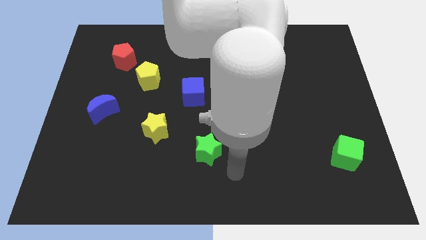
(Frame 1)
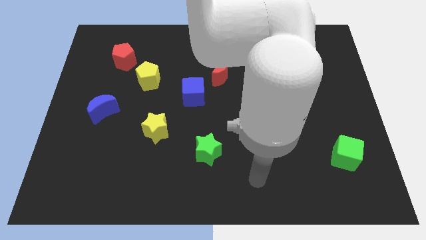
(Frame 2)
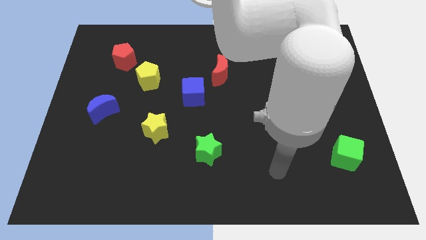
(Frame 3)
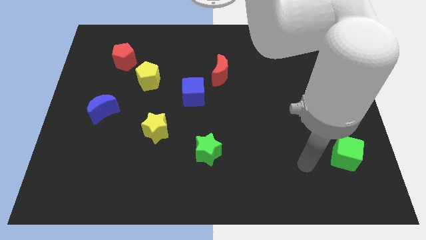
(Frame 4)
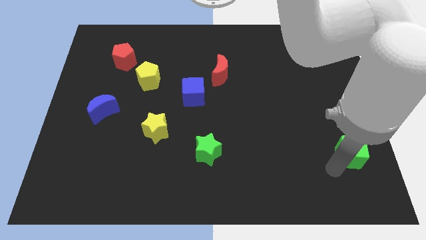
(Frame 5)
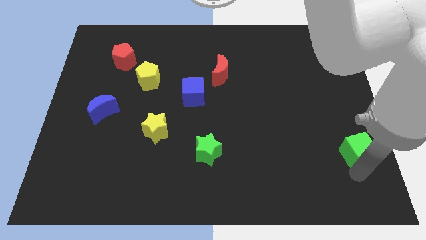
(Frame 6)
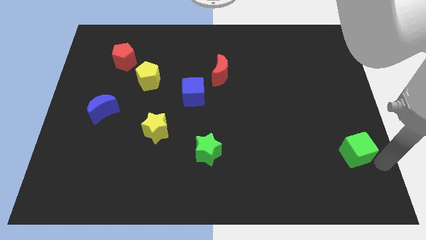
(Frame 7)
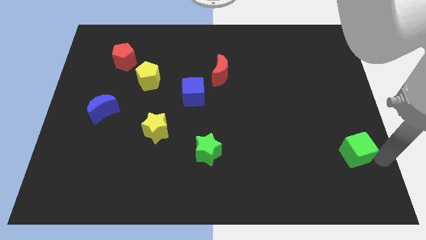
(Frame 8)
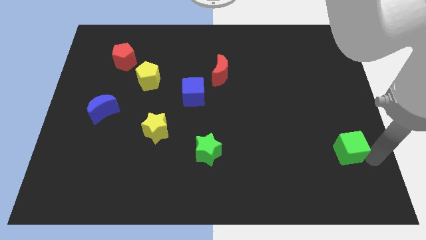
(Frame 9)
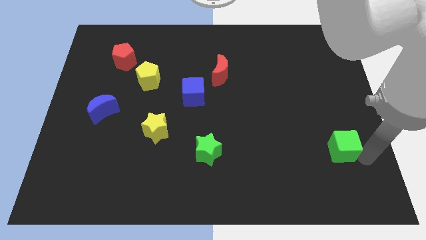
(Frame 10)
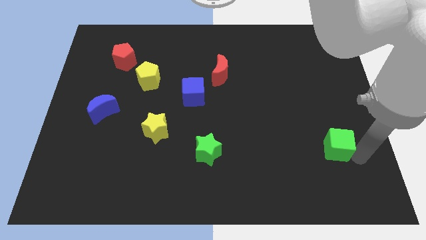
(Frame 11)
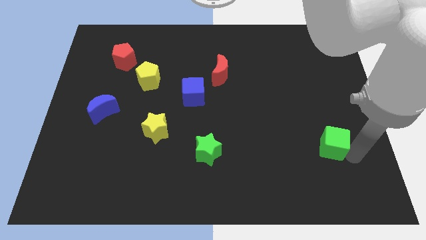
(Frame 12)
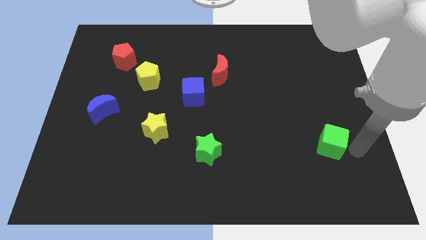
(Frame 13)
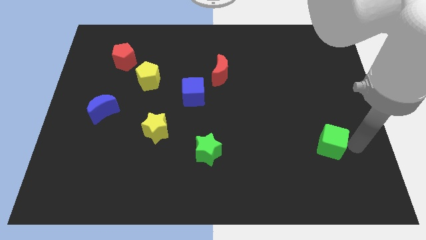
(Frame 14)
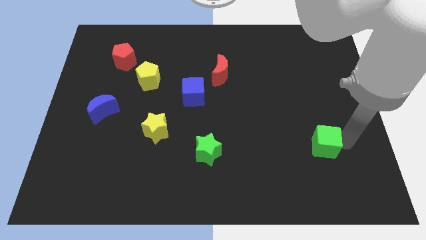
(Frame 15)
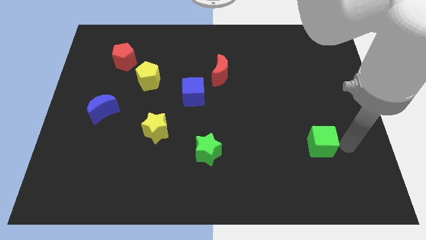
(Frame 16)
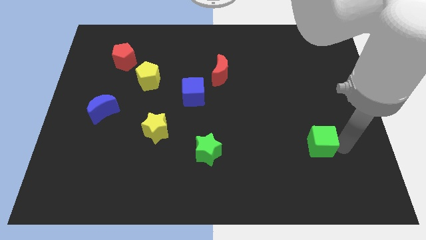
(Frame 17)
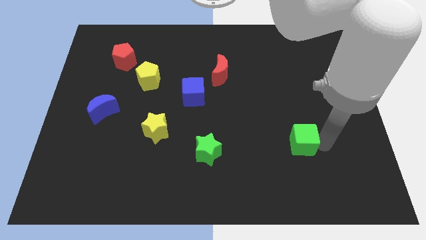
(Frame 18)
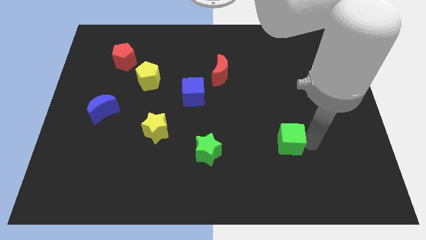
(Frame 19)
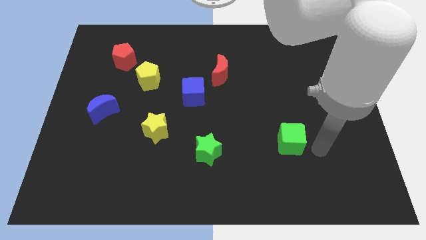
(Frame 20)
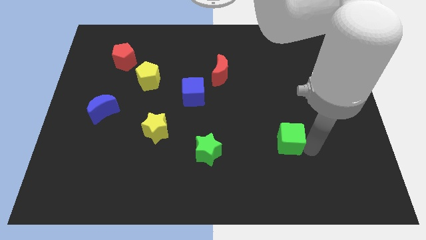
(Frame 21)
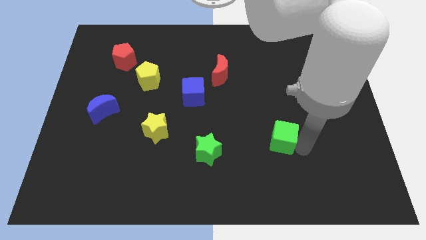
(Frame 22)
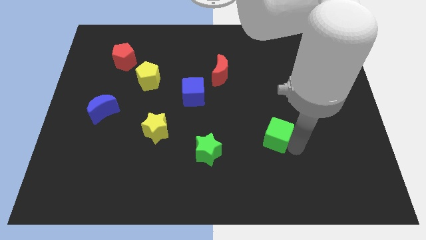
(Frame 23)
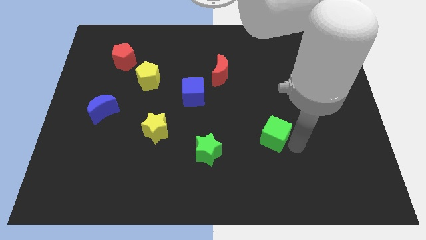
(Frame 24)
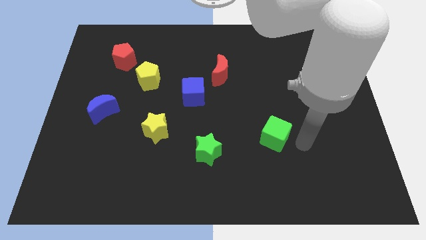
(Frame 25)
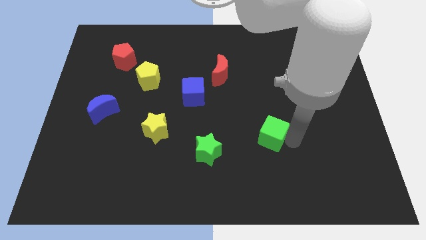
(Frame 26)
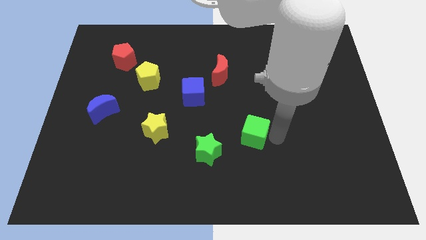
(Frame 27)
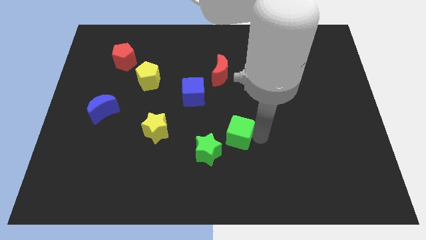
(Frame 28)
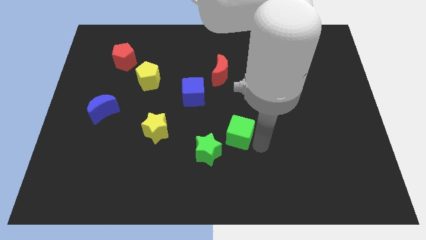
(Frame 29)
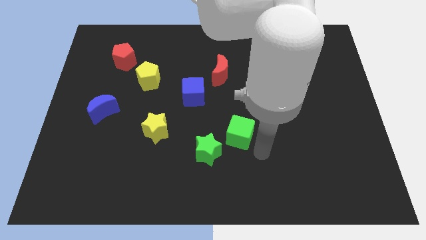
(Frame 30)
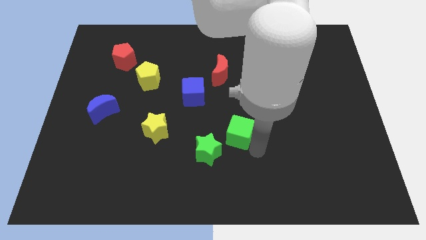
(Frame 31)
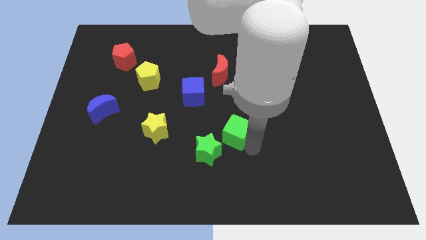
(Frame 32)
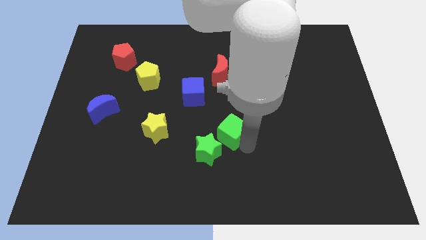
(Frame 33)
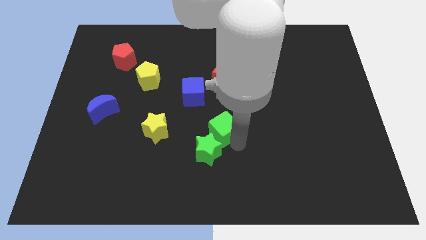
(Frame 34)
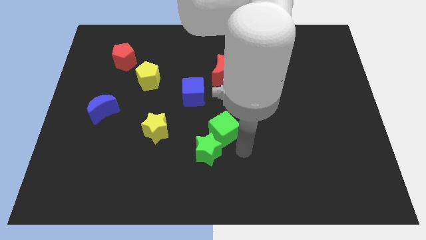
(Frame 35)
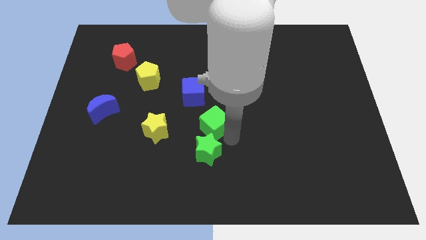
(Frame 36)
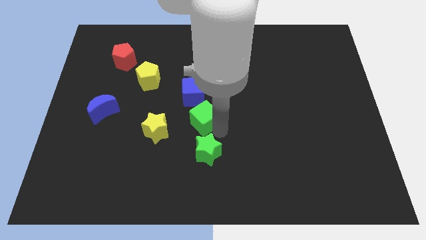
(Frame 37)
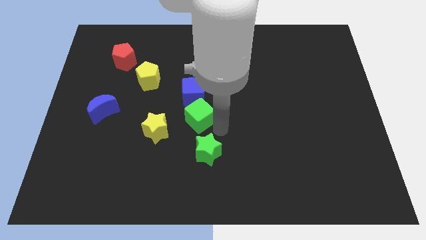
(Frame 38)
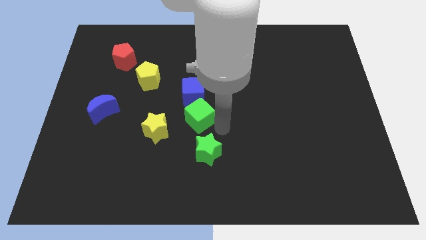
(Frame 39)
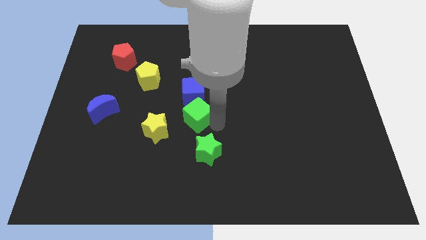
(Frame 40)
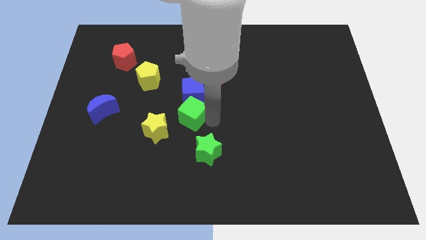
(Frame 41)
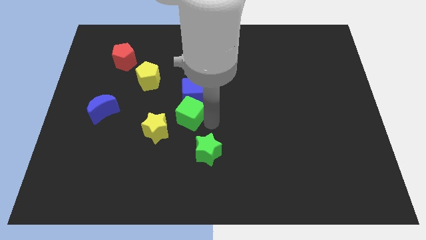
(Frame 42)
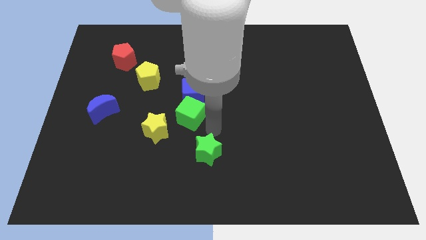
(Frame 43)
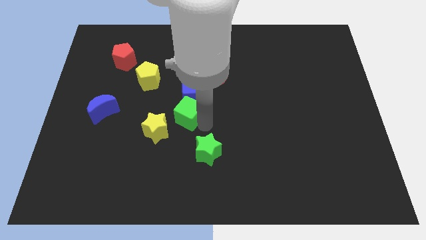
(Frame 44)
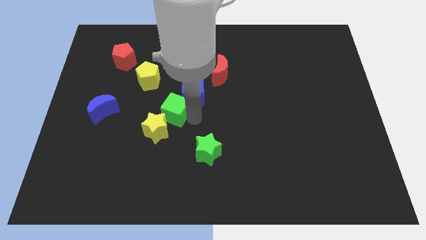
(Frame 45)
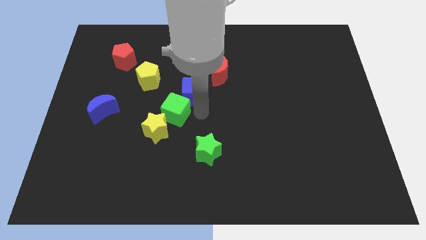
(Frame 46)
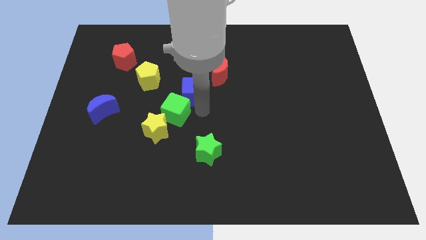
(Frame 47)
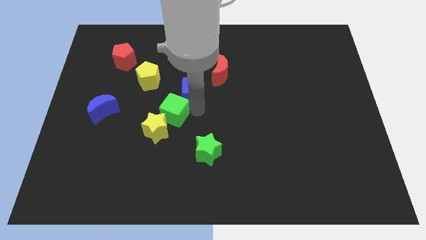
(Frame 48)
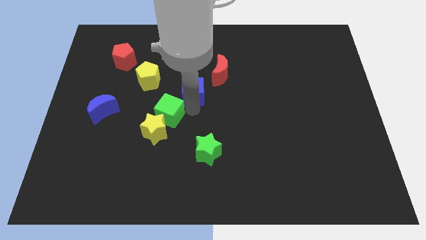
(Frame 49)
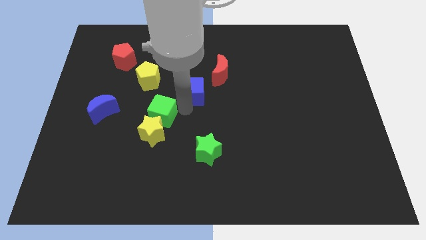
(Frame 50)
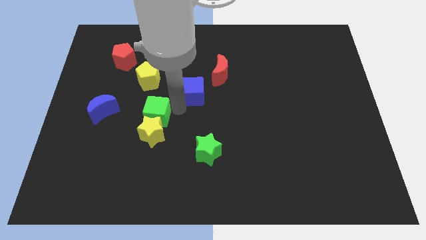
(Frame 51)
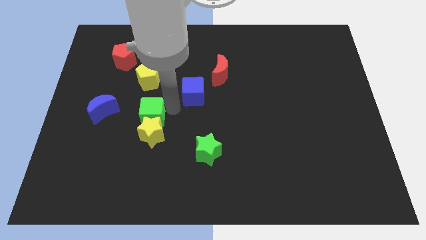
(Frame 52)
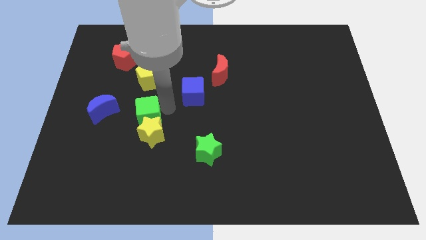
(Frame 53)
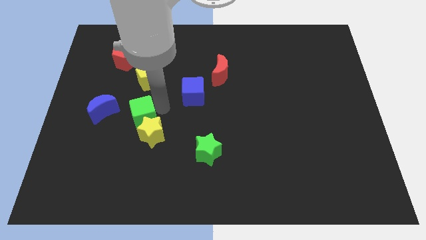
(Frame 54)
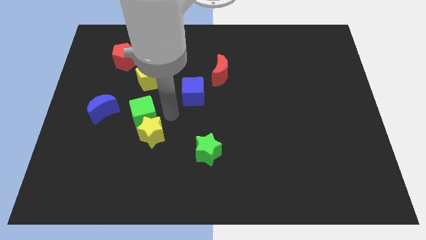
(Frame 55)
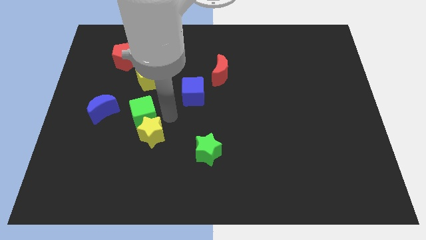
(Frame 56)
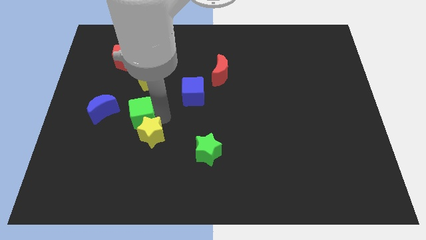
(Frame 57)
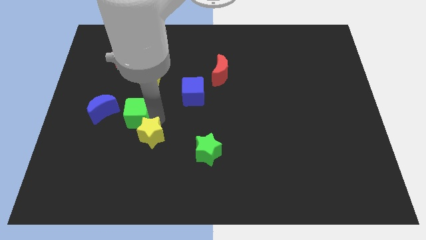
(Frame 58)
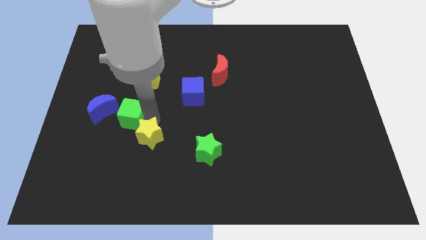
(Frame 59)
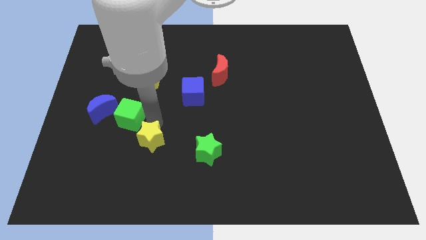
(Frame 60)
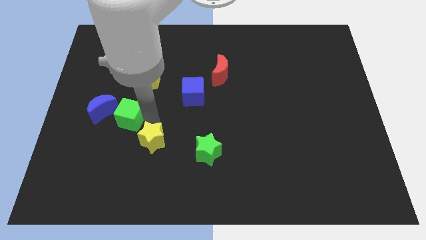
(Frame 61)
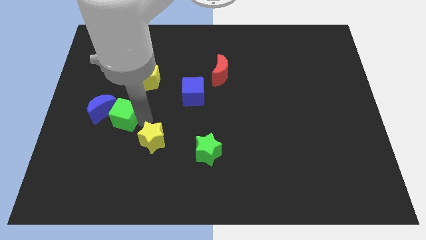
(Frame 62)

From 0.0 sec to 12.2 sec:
put the green cube towards the blue moon

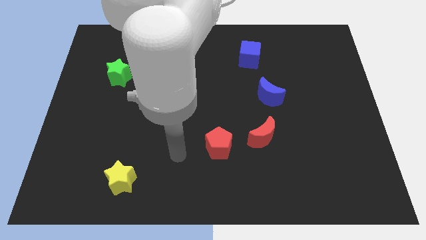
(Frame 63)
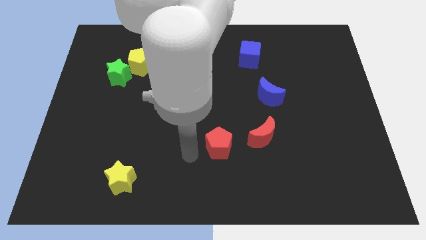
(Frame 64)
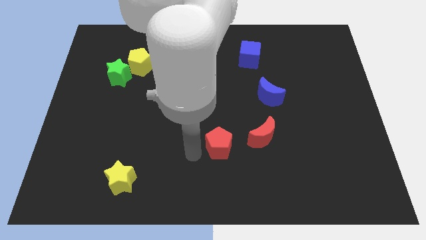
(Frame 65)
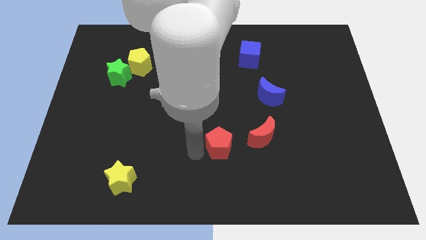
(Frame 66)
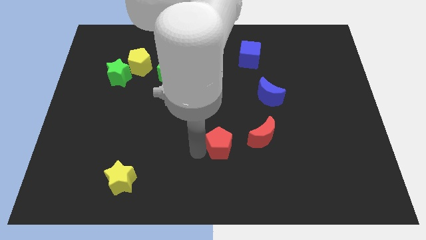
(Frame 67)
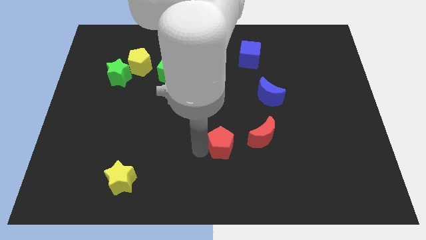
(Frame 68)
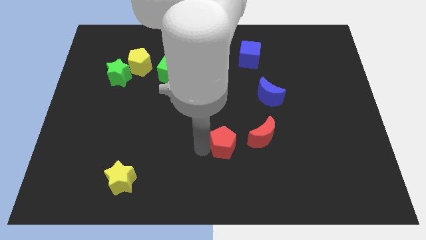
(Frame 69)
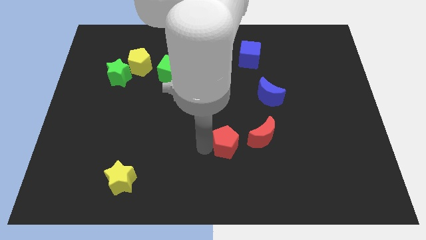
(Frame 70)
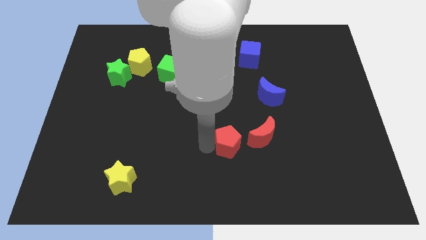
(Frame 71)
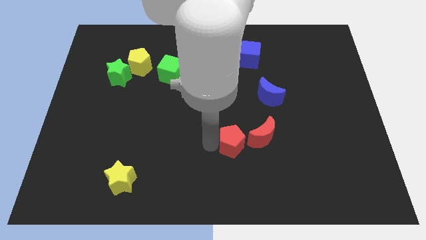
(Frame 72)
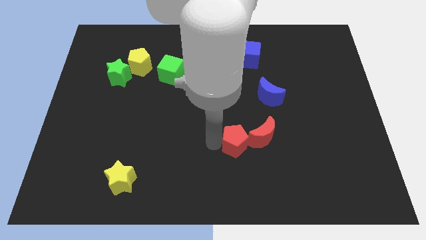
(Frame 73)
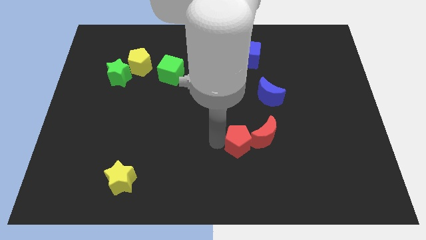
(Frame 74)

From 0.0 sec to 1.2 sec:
push the red pentagon to the red moon
